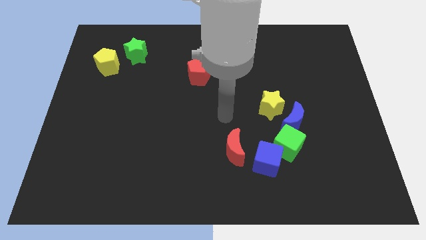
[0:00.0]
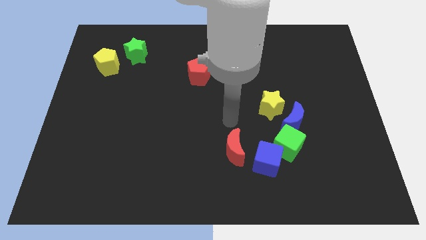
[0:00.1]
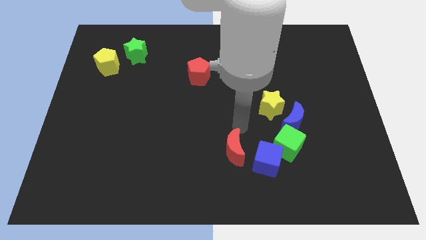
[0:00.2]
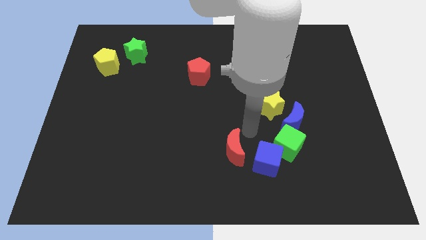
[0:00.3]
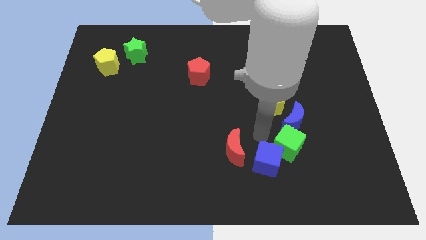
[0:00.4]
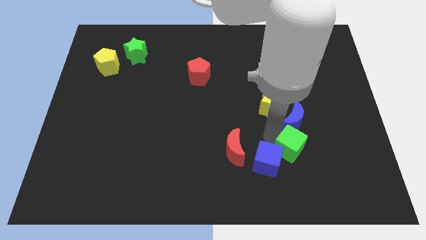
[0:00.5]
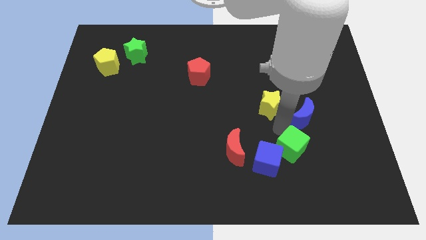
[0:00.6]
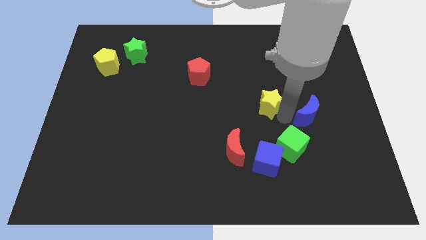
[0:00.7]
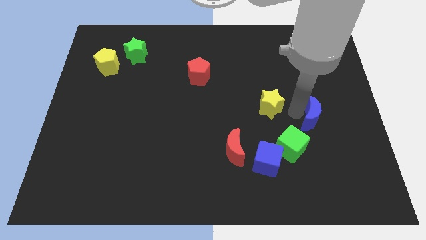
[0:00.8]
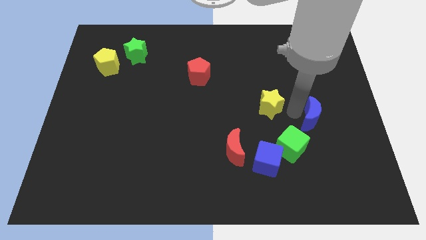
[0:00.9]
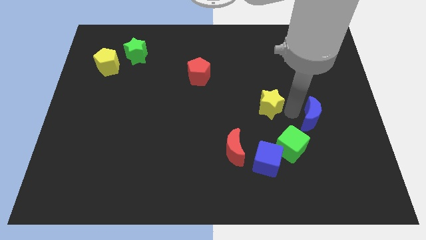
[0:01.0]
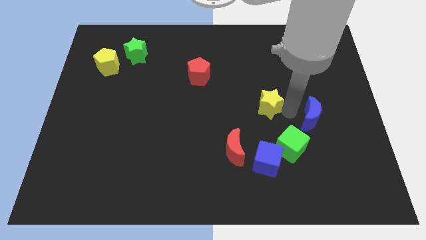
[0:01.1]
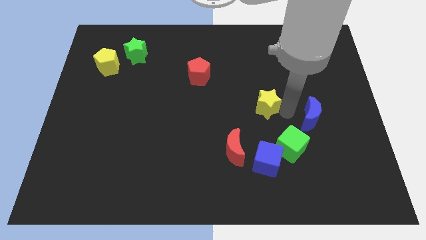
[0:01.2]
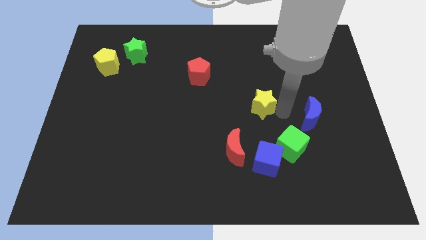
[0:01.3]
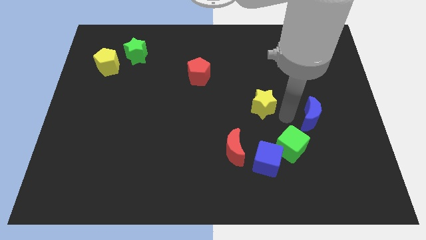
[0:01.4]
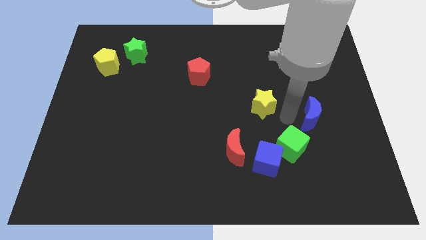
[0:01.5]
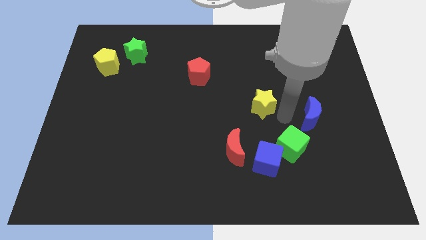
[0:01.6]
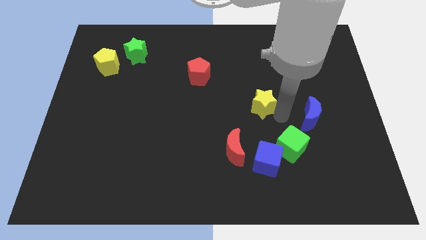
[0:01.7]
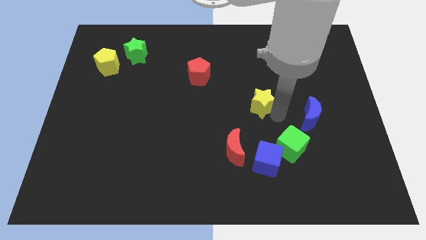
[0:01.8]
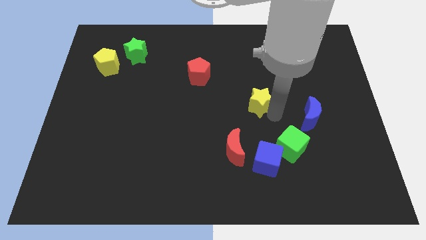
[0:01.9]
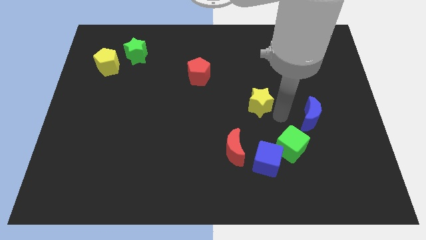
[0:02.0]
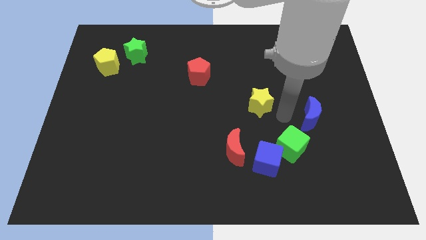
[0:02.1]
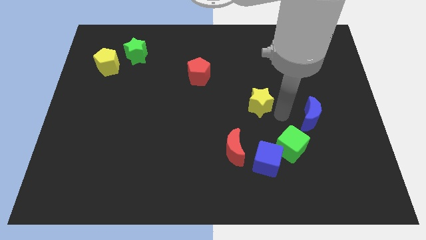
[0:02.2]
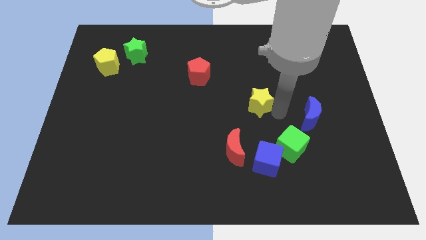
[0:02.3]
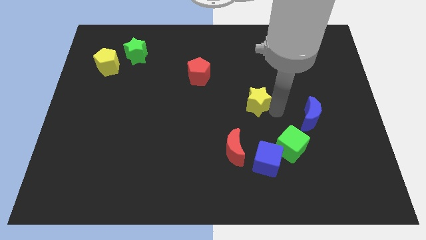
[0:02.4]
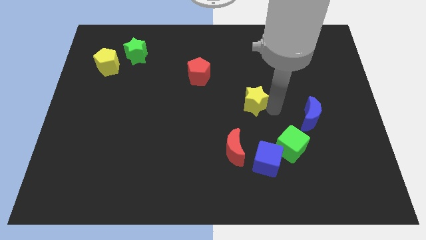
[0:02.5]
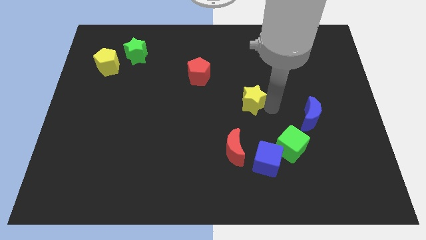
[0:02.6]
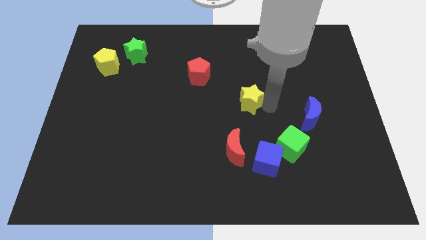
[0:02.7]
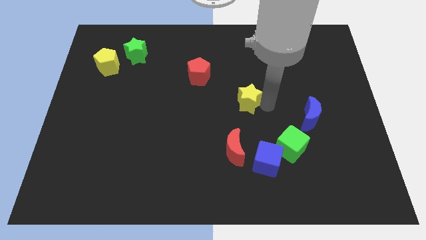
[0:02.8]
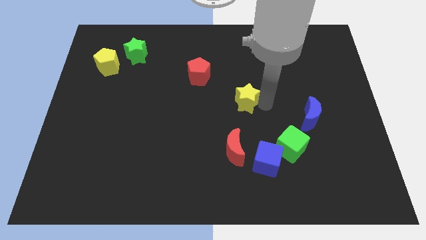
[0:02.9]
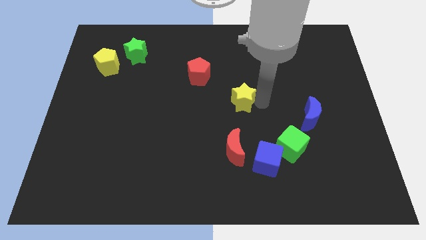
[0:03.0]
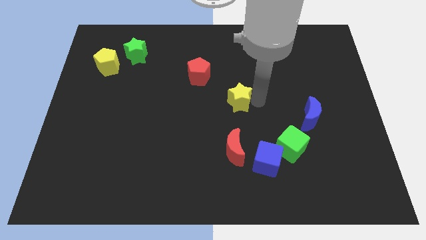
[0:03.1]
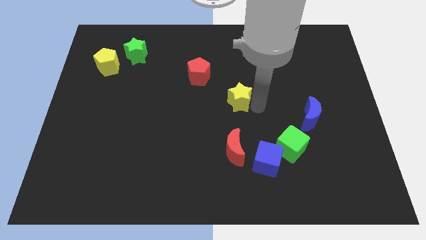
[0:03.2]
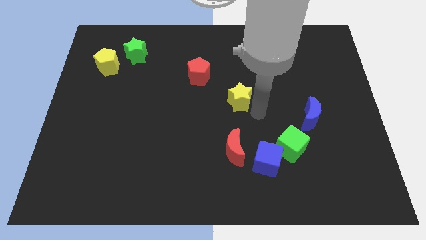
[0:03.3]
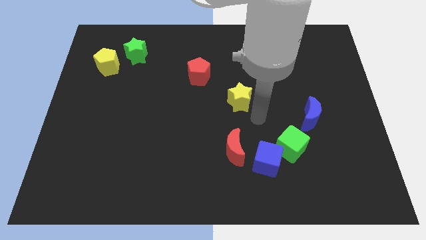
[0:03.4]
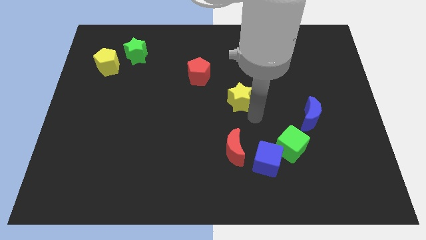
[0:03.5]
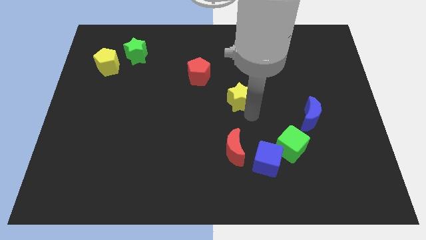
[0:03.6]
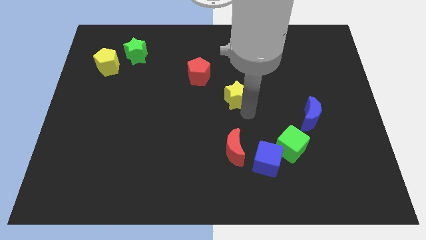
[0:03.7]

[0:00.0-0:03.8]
slightly push the yellow star up and then left

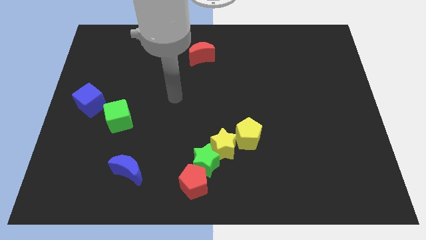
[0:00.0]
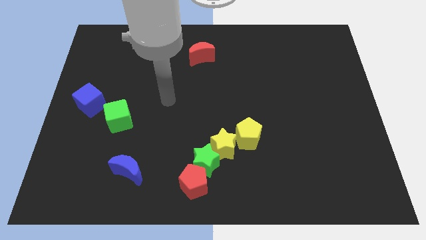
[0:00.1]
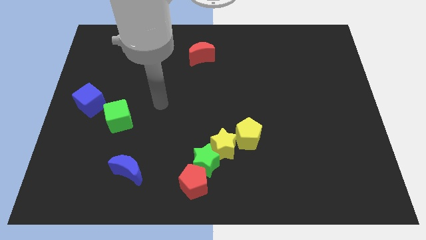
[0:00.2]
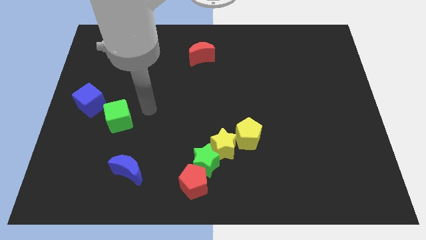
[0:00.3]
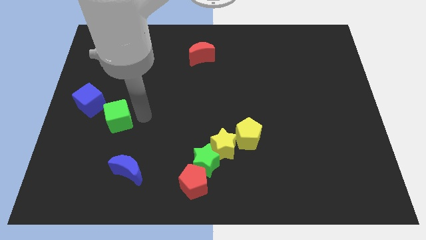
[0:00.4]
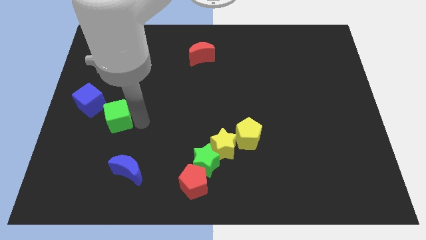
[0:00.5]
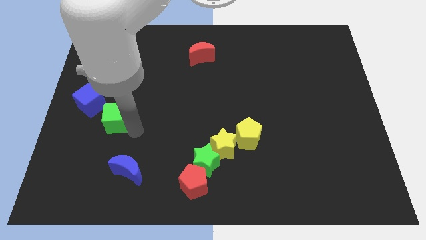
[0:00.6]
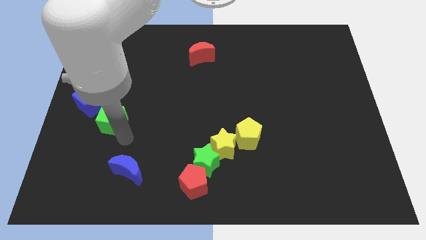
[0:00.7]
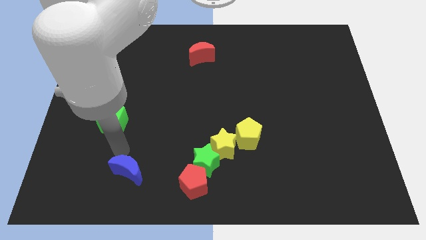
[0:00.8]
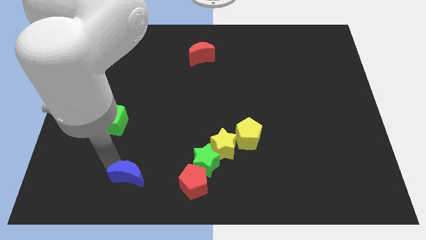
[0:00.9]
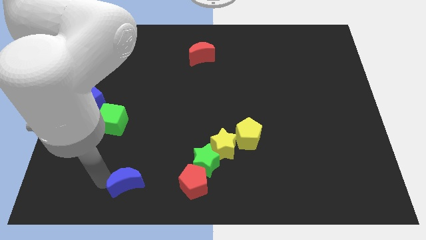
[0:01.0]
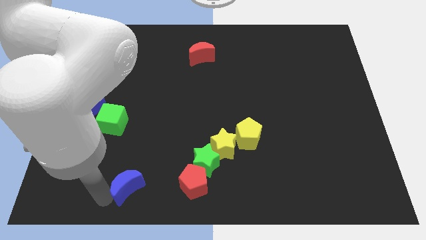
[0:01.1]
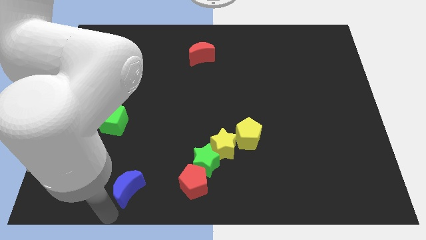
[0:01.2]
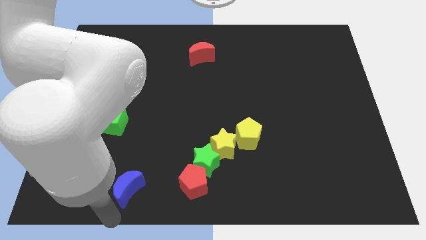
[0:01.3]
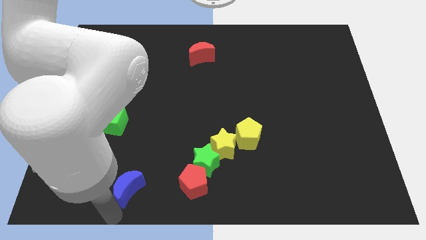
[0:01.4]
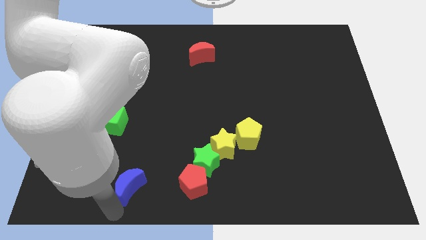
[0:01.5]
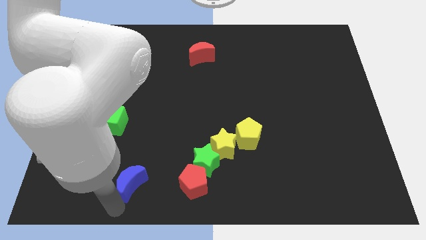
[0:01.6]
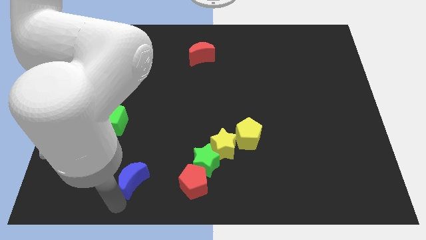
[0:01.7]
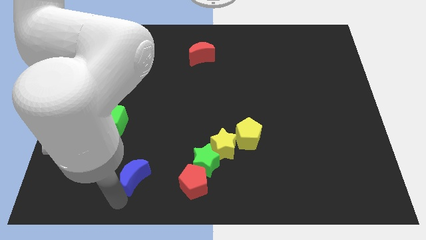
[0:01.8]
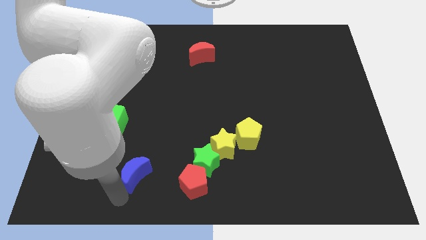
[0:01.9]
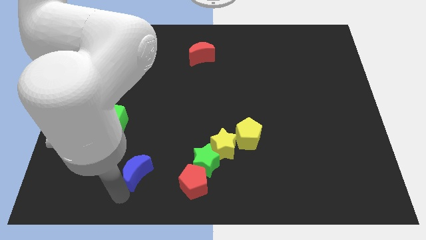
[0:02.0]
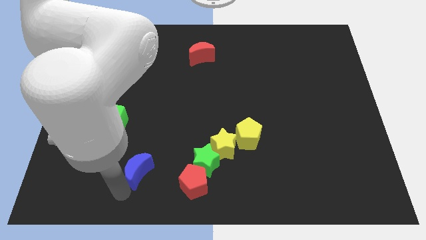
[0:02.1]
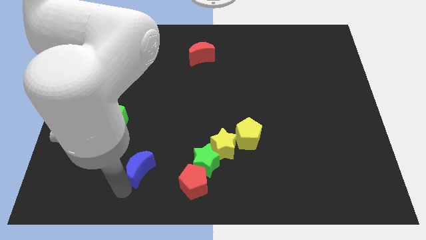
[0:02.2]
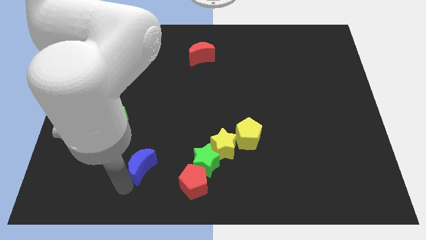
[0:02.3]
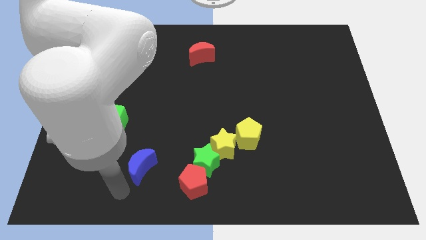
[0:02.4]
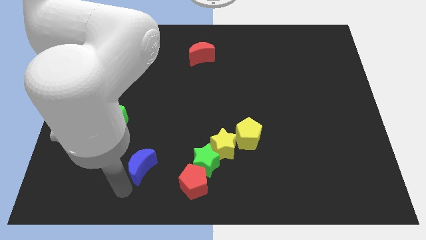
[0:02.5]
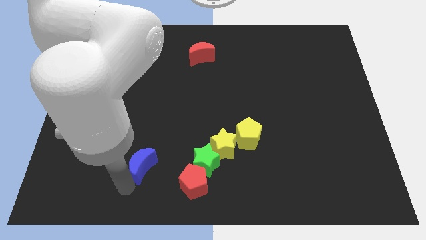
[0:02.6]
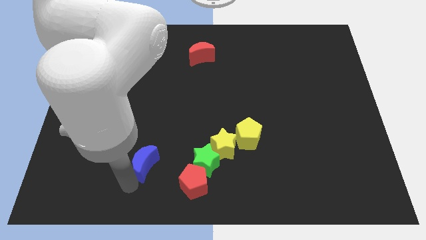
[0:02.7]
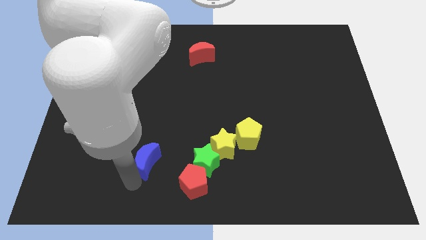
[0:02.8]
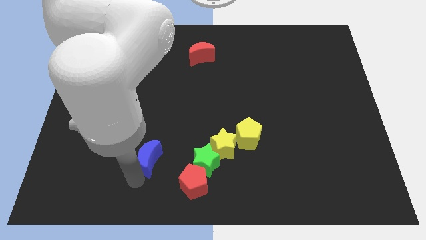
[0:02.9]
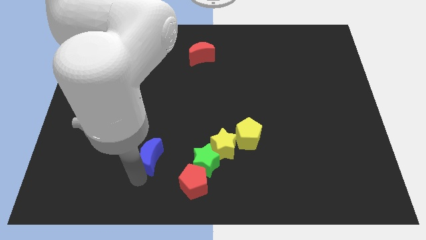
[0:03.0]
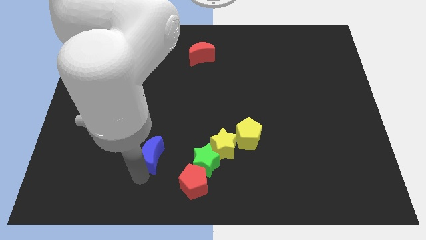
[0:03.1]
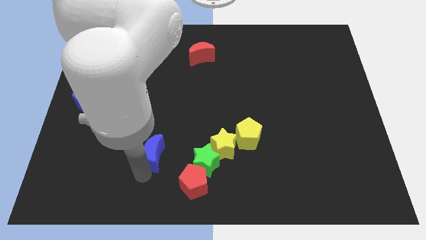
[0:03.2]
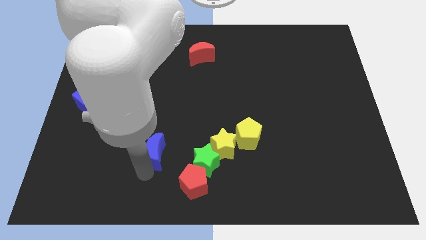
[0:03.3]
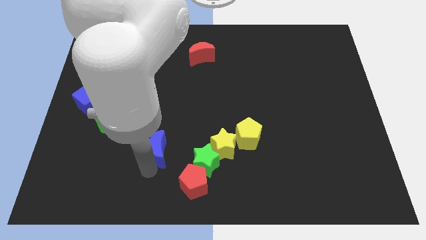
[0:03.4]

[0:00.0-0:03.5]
slide the blue moon a bit diagonally upwards and to the right

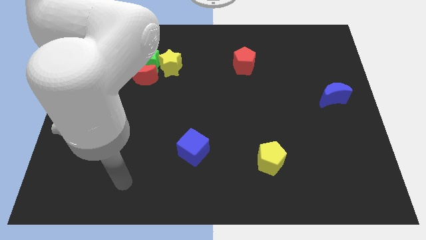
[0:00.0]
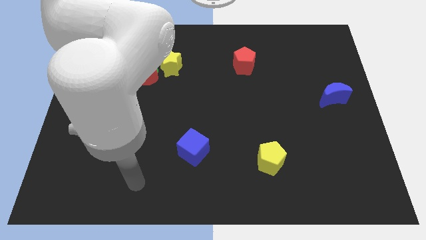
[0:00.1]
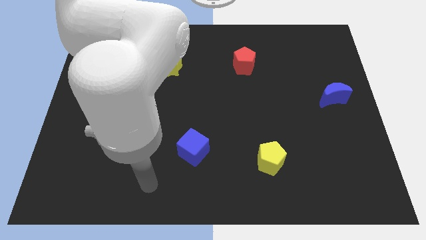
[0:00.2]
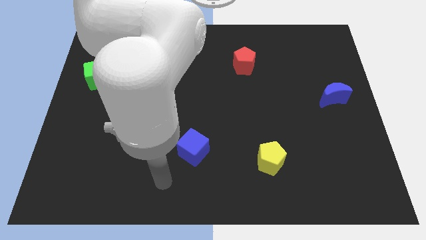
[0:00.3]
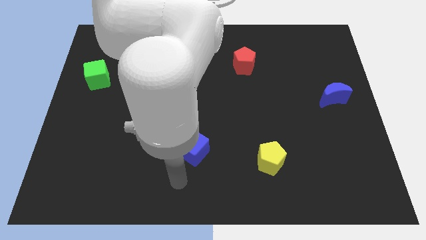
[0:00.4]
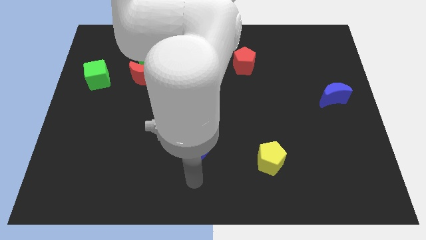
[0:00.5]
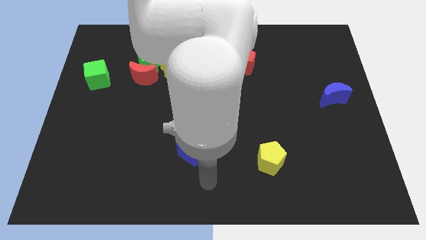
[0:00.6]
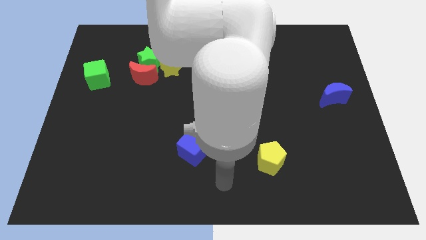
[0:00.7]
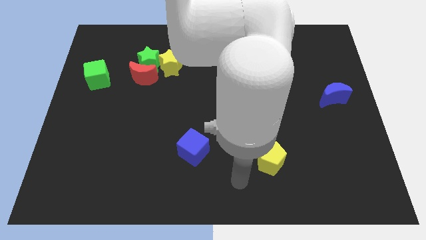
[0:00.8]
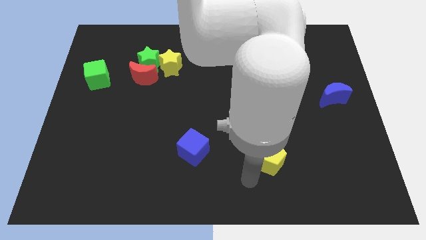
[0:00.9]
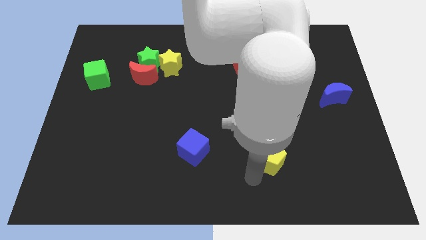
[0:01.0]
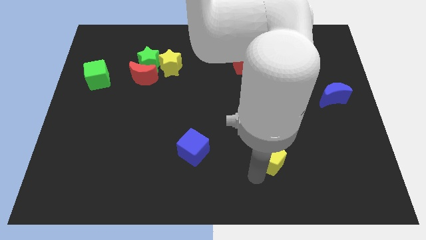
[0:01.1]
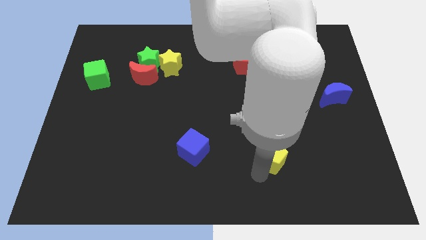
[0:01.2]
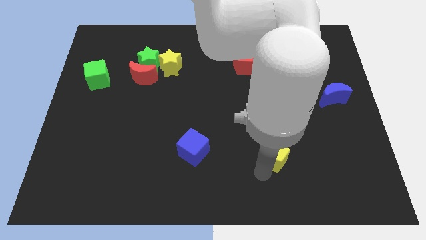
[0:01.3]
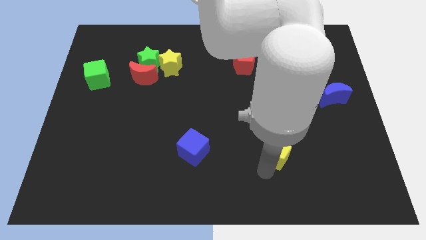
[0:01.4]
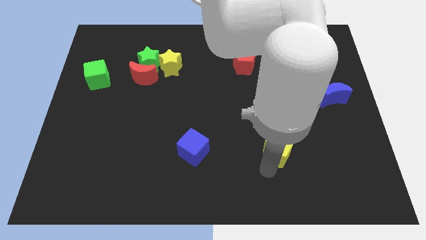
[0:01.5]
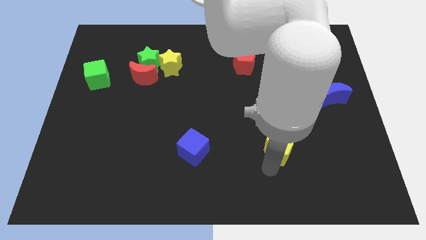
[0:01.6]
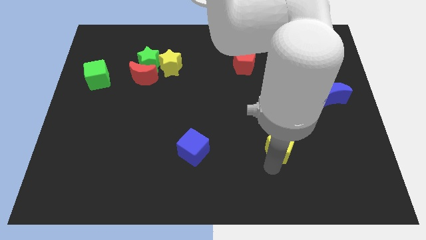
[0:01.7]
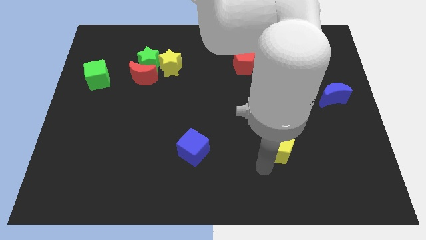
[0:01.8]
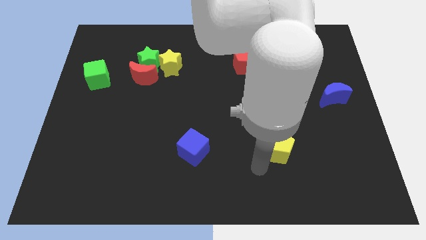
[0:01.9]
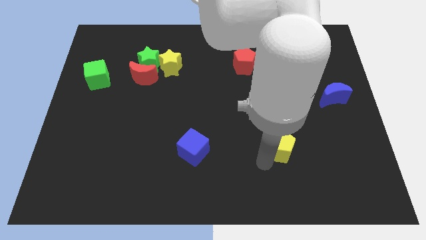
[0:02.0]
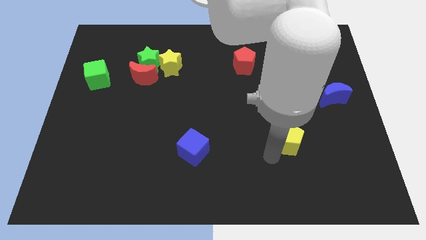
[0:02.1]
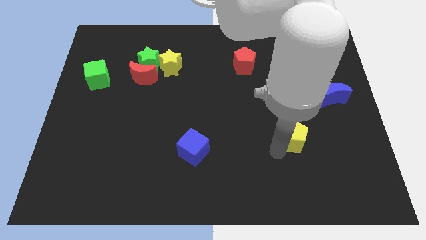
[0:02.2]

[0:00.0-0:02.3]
slightly push the yellow pentagon upwards and then right
